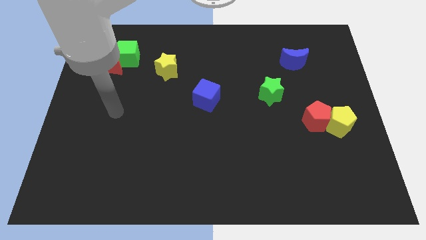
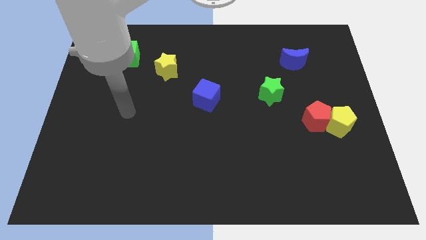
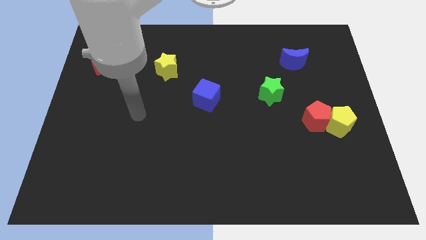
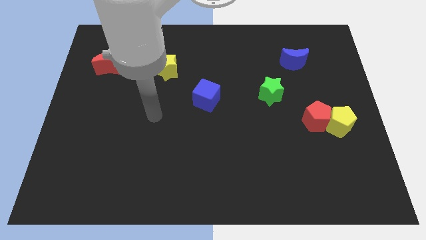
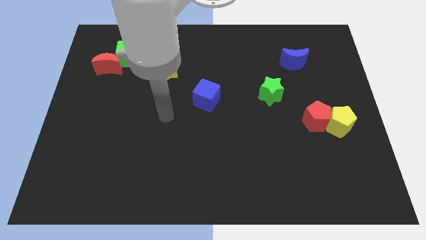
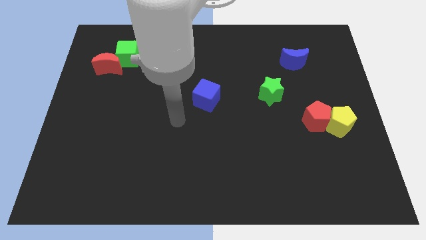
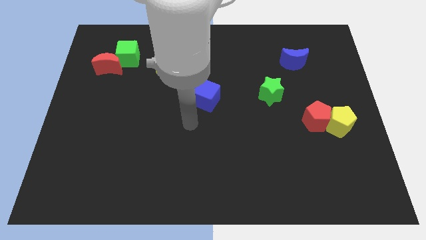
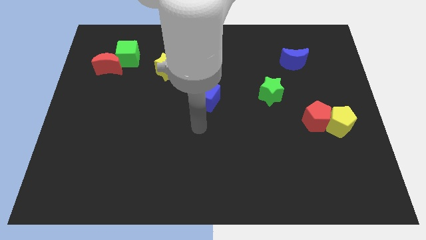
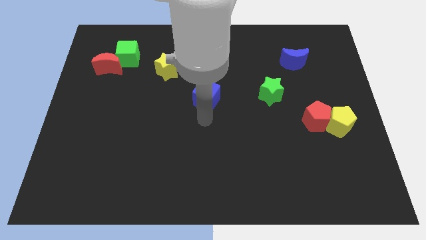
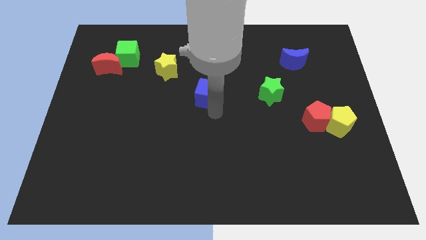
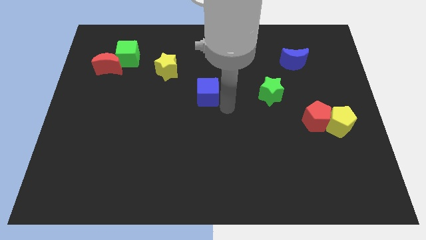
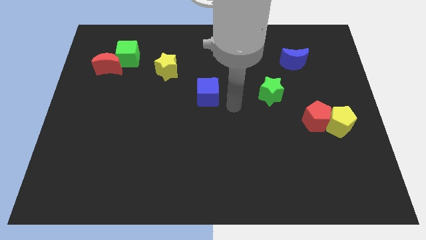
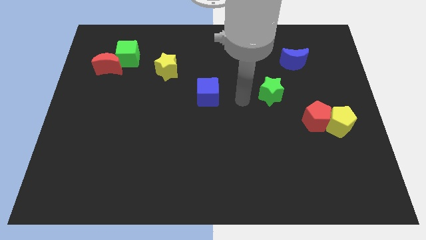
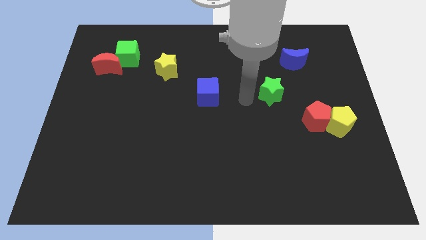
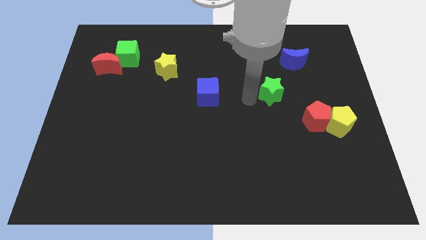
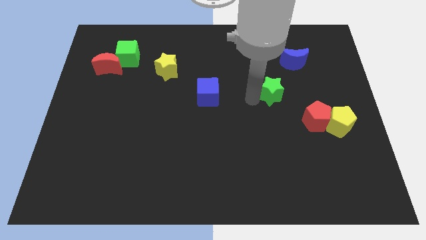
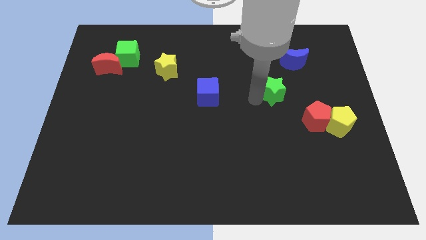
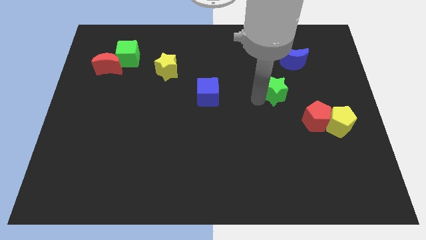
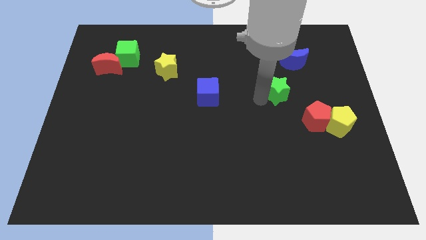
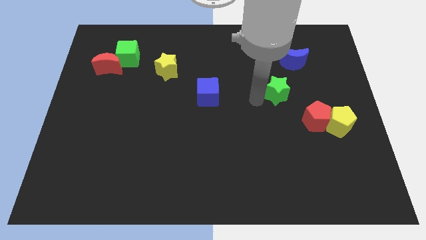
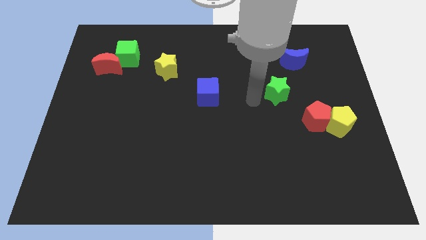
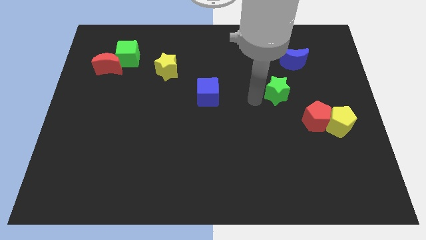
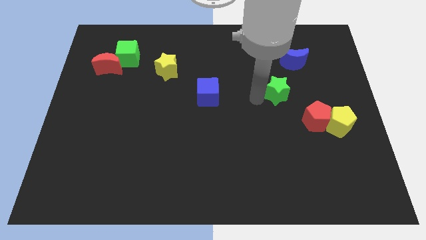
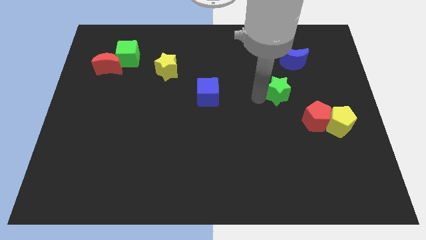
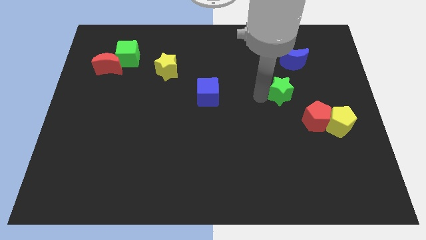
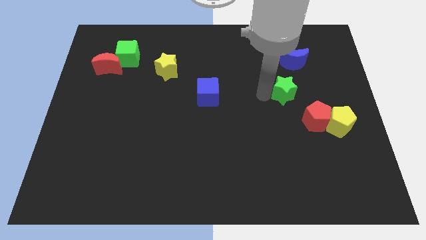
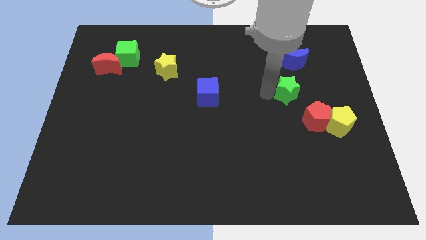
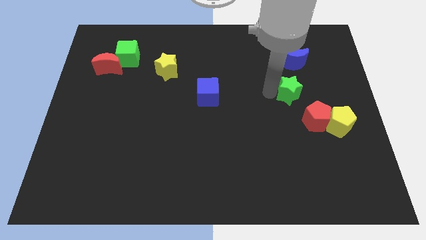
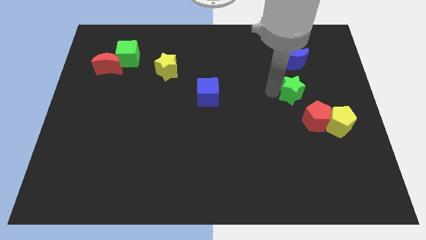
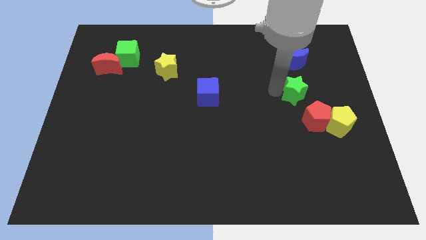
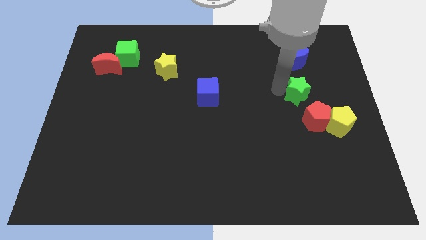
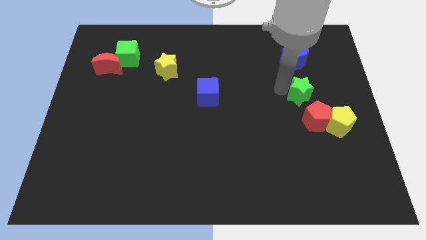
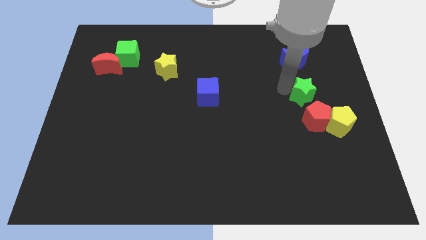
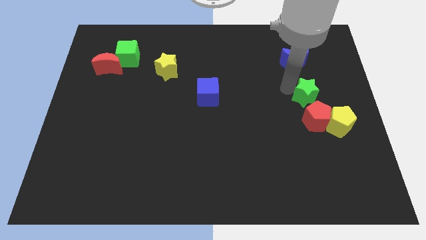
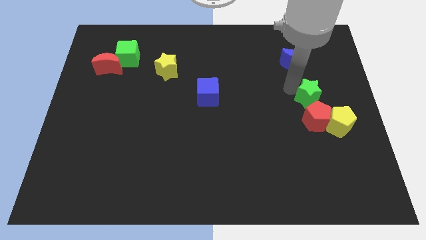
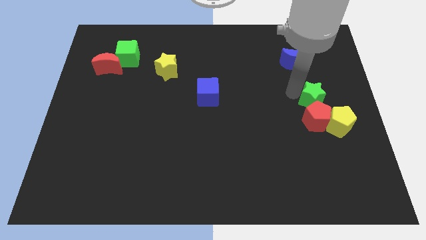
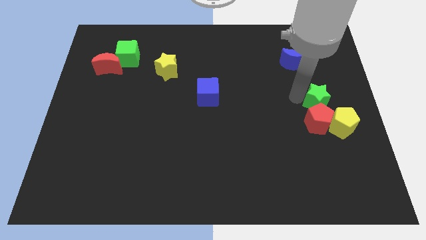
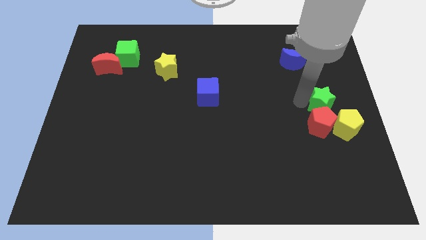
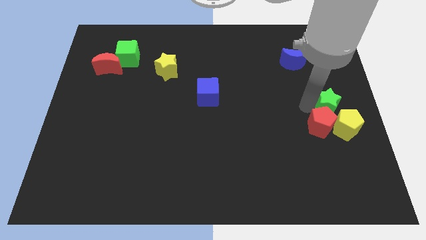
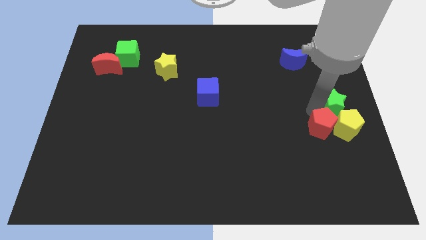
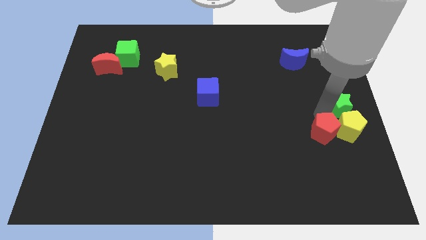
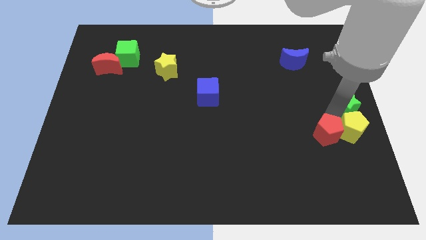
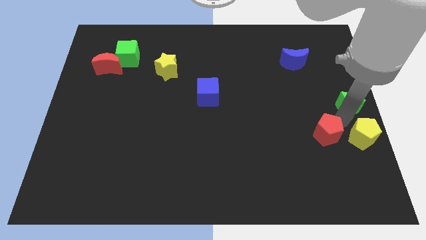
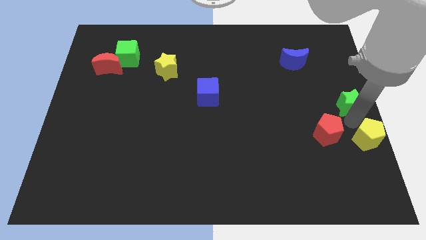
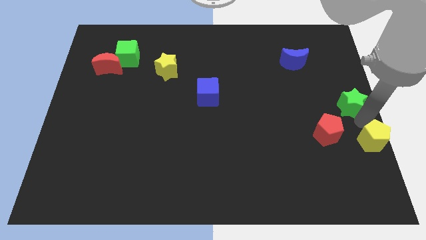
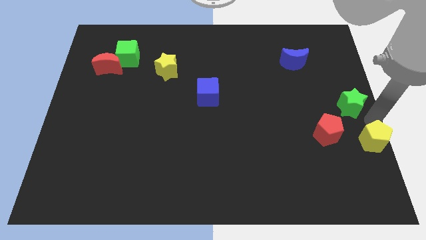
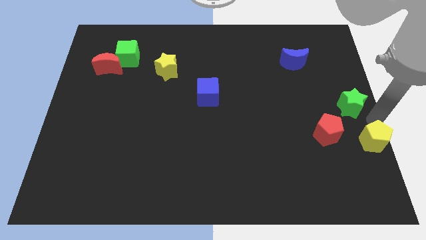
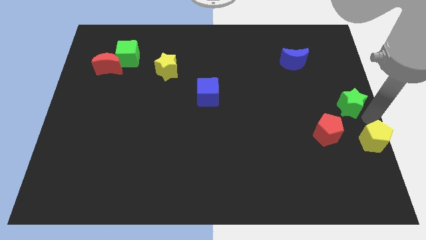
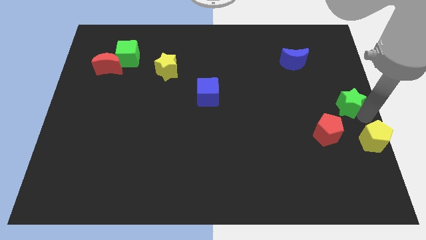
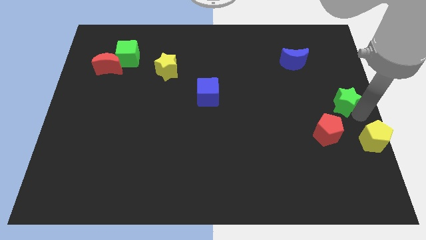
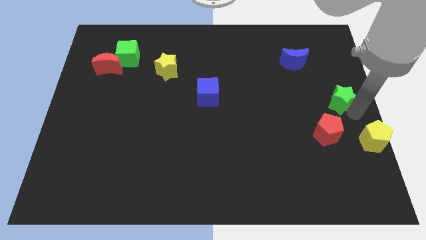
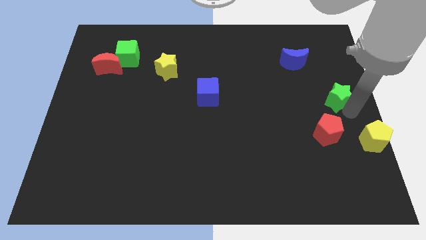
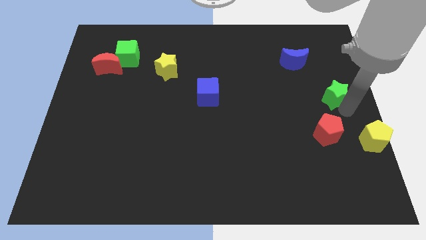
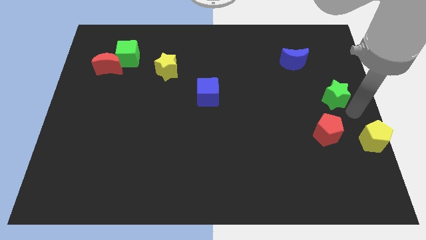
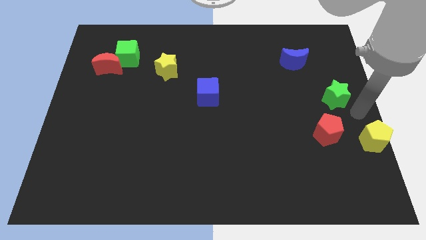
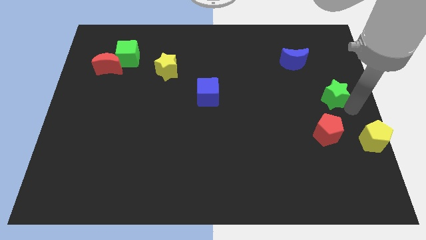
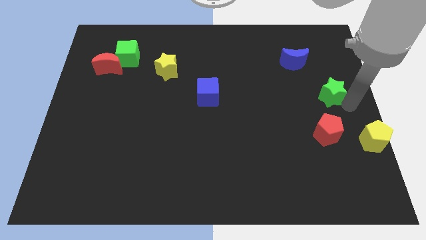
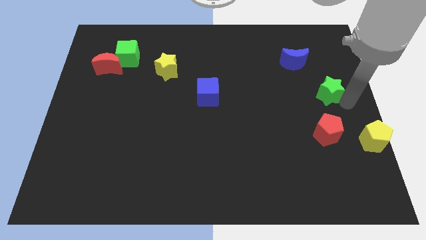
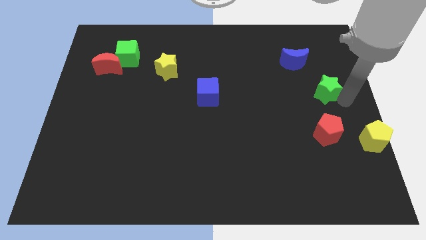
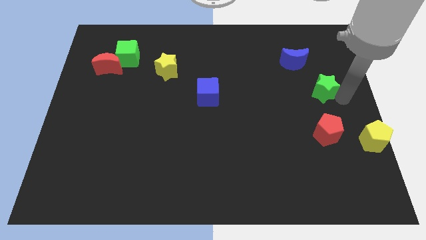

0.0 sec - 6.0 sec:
slide the green star upwards and then to the right a bit

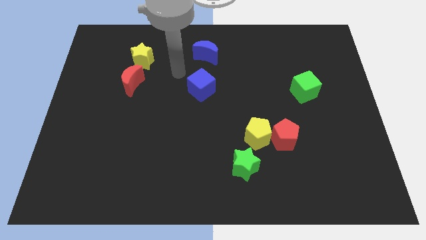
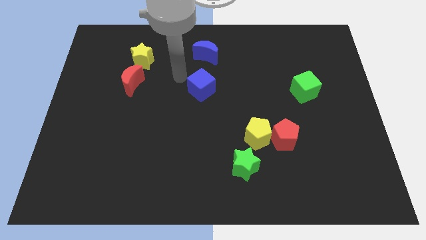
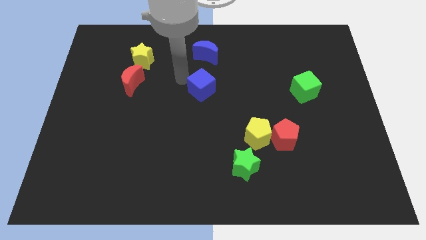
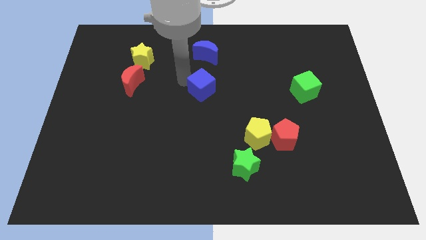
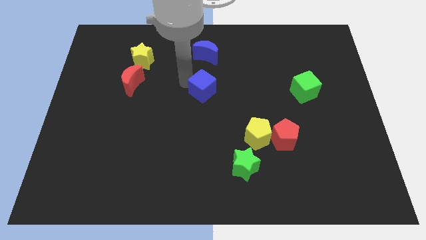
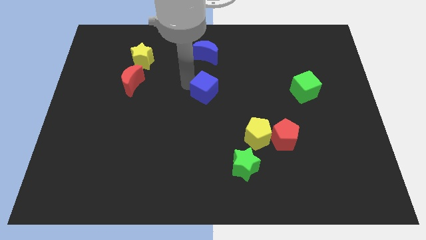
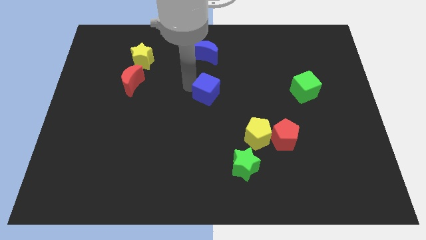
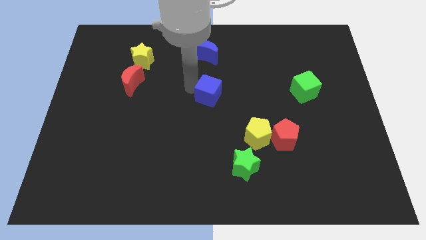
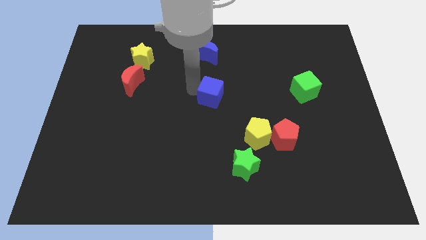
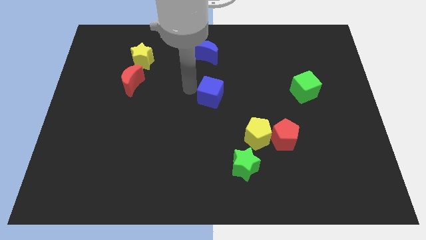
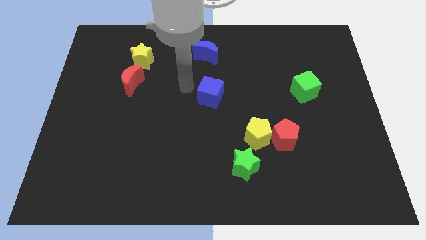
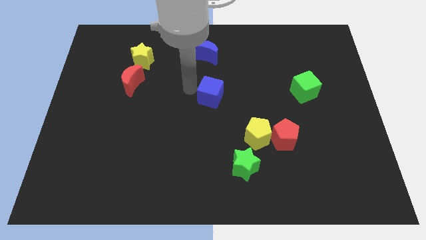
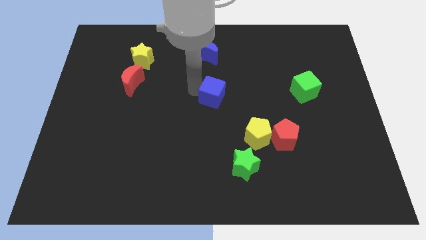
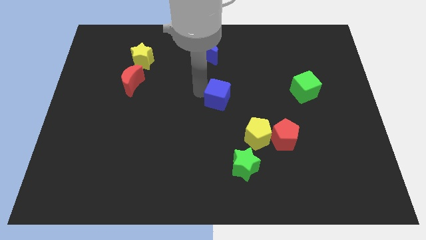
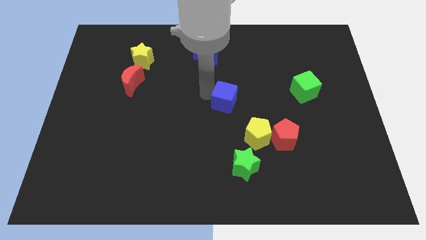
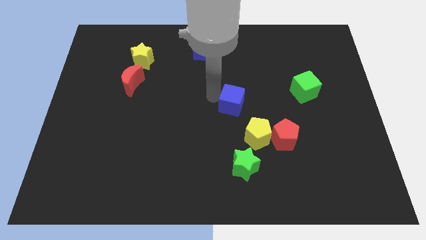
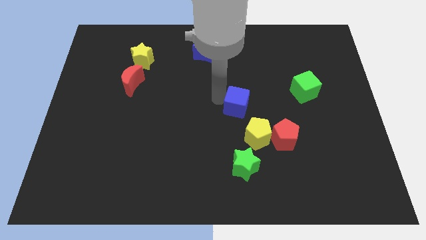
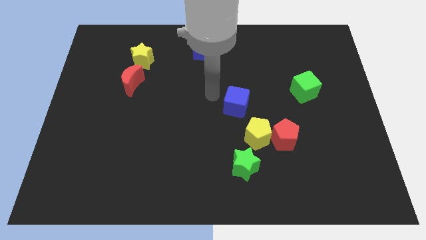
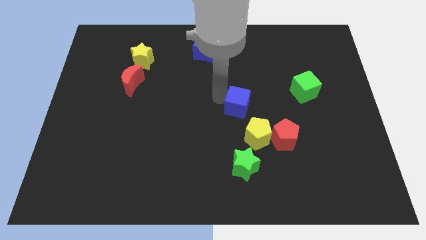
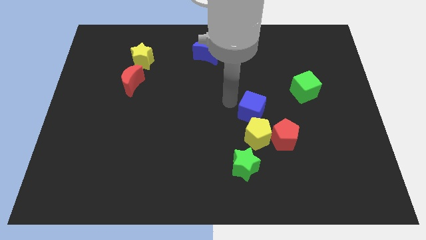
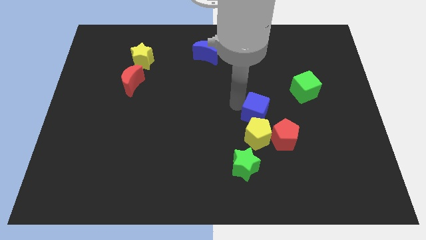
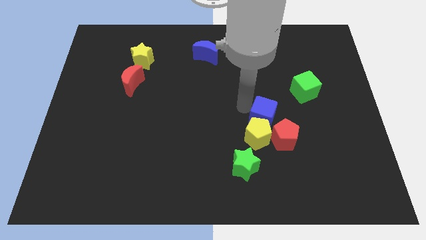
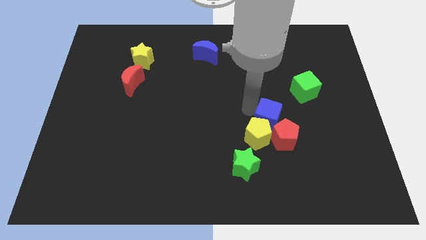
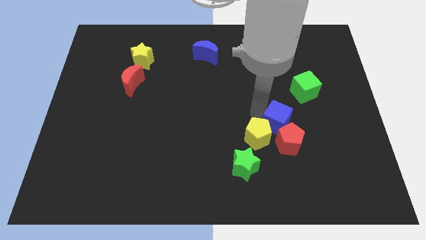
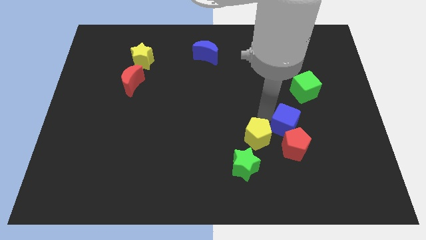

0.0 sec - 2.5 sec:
move the blue cube diagonally downwards and right
